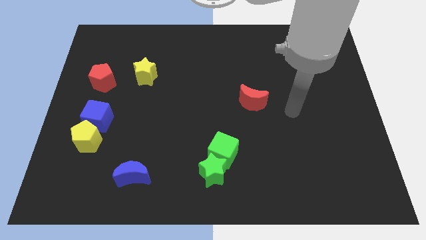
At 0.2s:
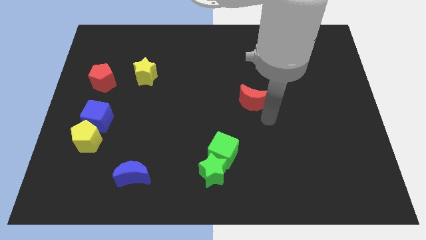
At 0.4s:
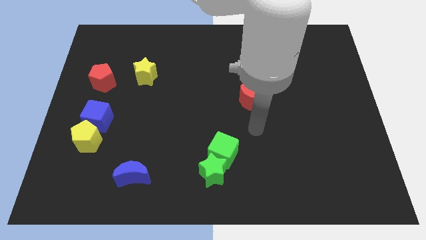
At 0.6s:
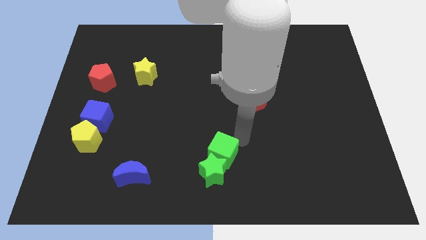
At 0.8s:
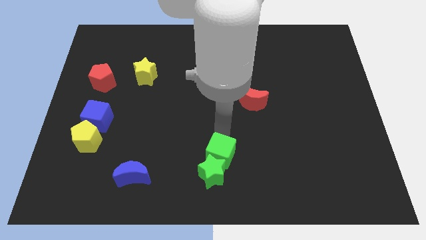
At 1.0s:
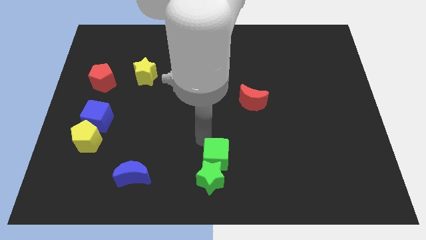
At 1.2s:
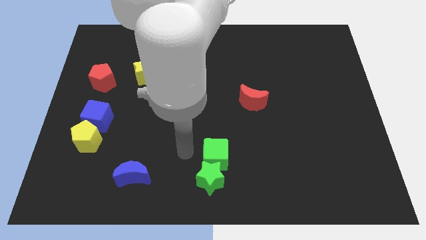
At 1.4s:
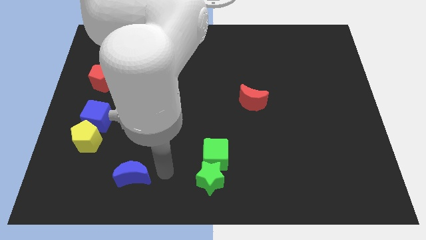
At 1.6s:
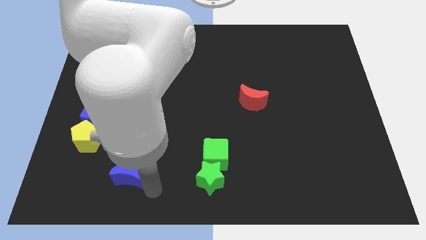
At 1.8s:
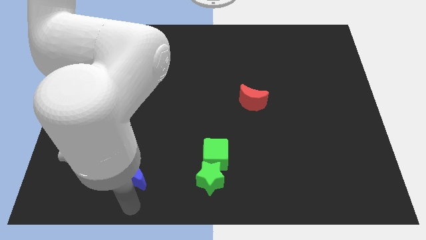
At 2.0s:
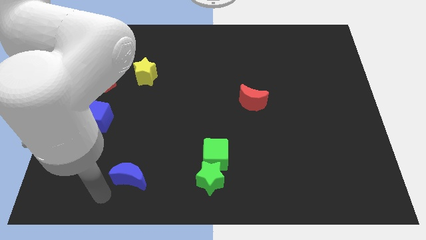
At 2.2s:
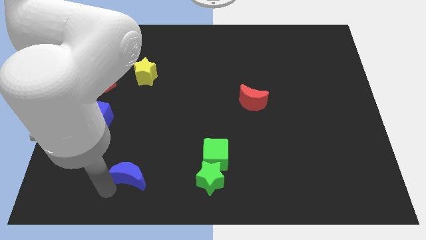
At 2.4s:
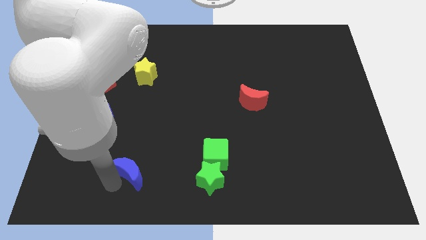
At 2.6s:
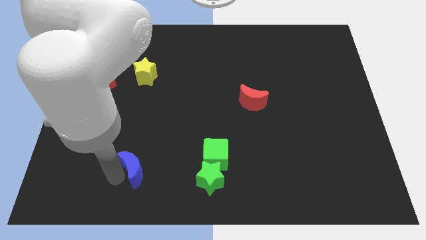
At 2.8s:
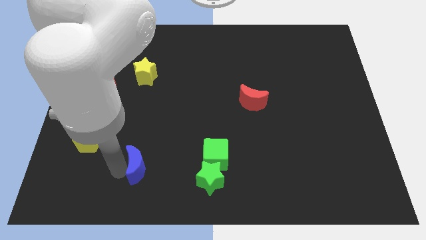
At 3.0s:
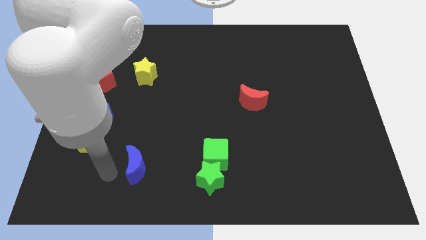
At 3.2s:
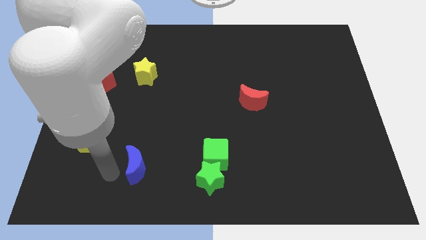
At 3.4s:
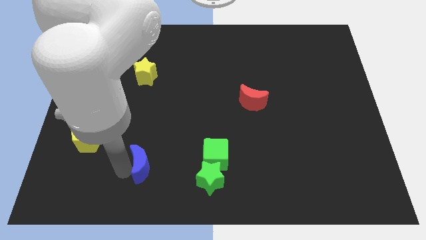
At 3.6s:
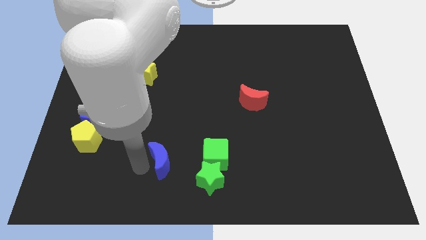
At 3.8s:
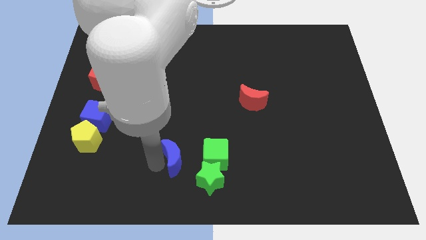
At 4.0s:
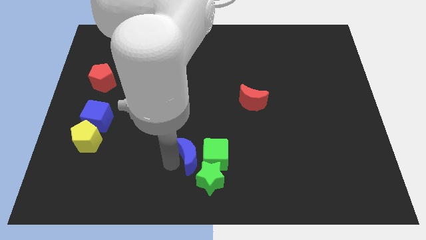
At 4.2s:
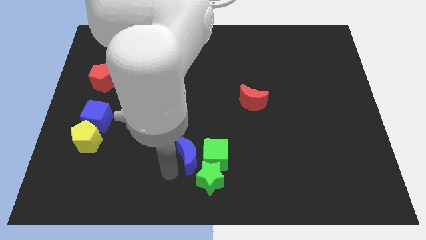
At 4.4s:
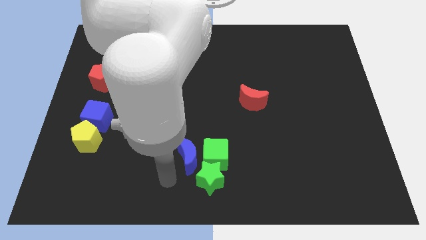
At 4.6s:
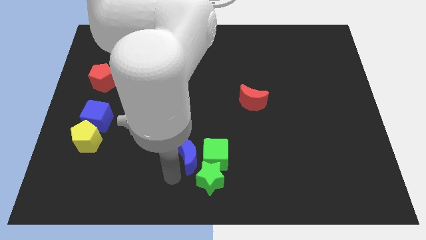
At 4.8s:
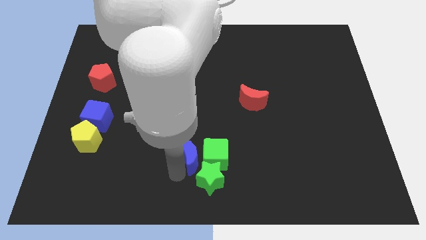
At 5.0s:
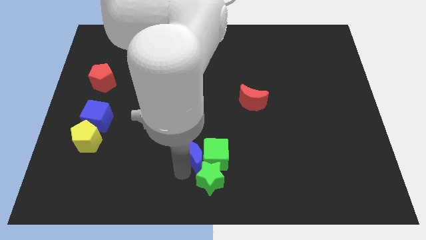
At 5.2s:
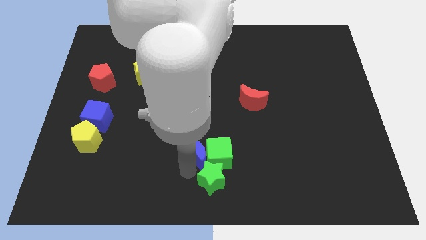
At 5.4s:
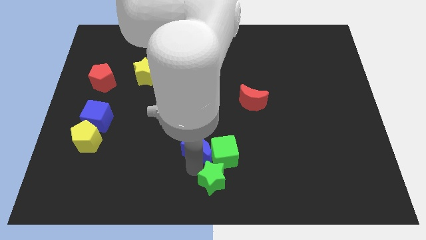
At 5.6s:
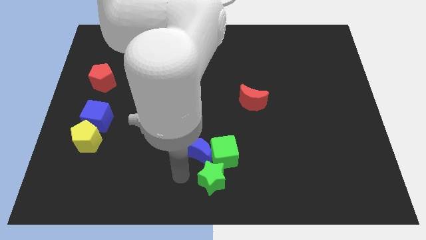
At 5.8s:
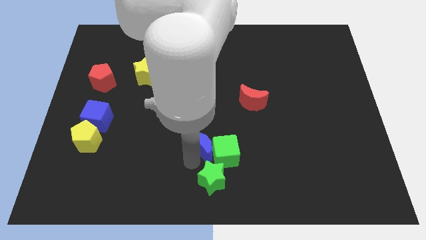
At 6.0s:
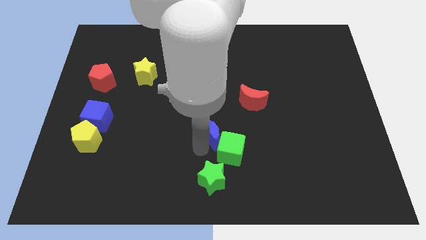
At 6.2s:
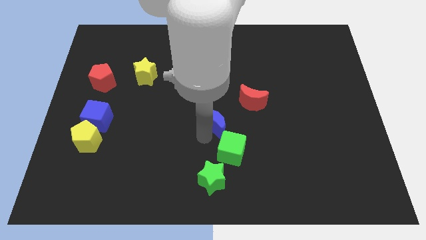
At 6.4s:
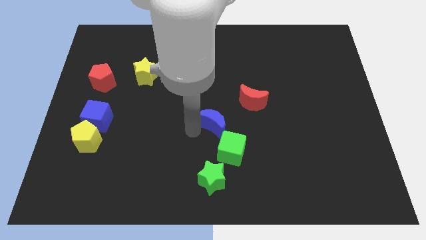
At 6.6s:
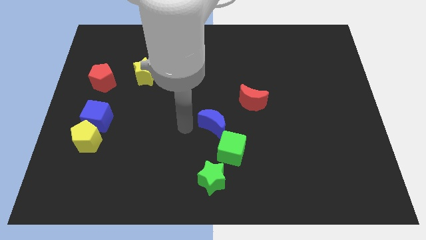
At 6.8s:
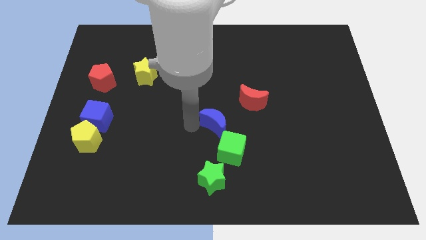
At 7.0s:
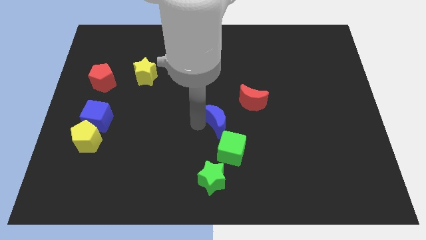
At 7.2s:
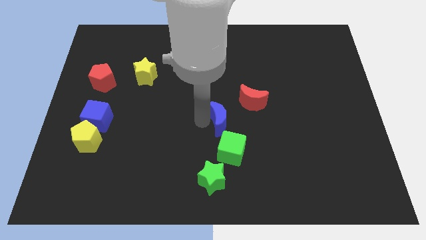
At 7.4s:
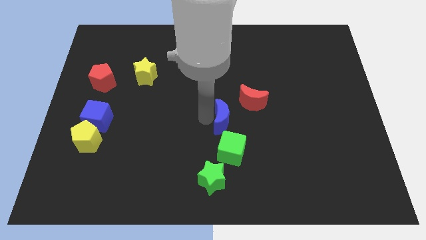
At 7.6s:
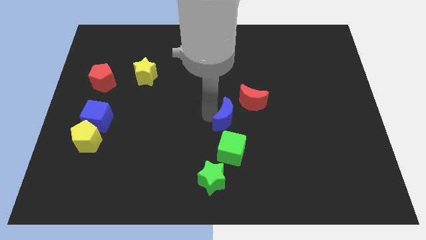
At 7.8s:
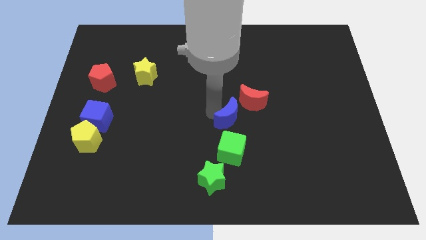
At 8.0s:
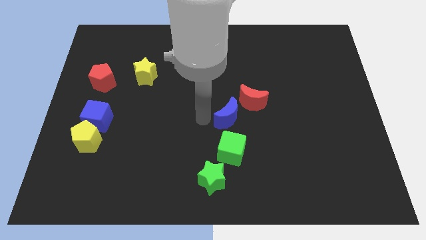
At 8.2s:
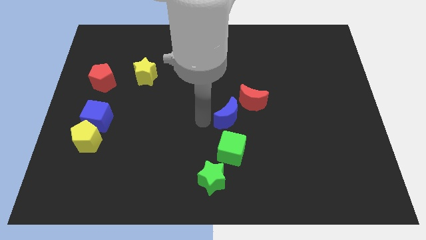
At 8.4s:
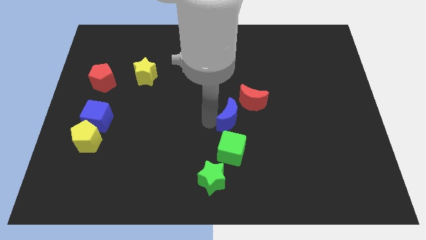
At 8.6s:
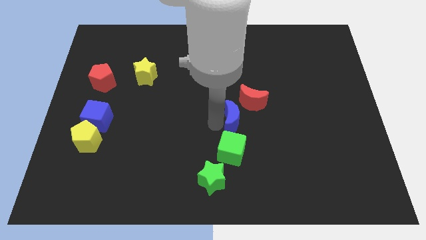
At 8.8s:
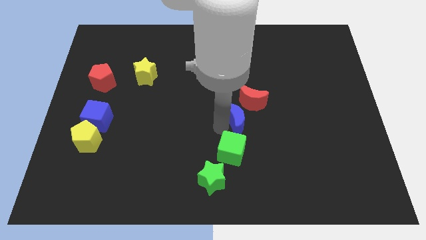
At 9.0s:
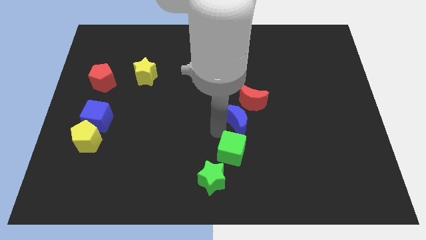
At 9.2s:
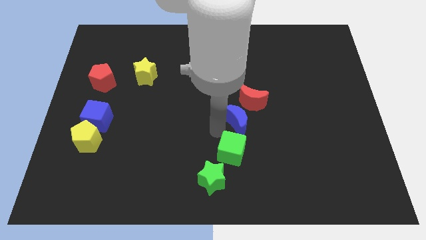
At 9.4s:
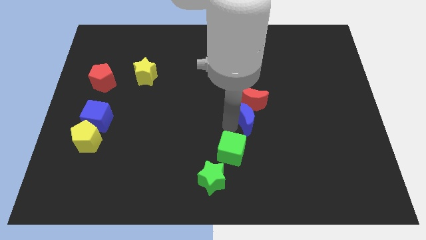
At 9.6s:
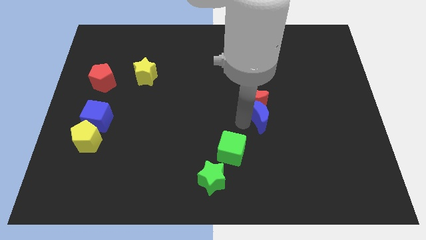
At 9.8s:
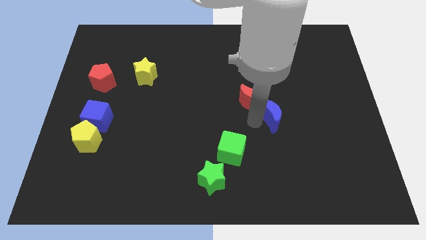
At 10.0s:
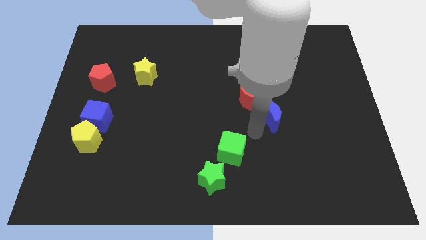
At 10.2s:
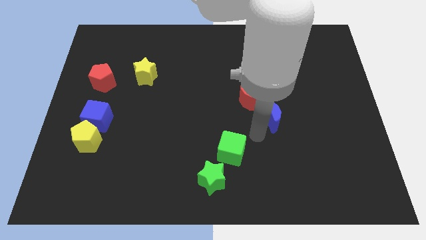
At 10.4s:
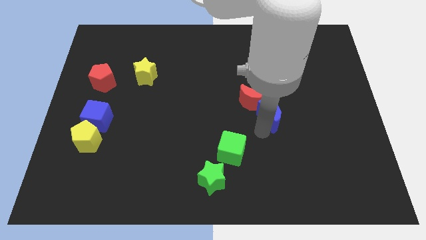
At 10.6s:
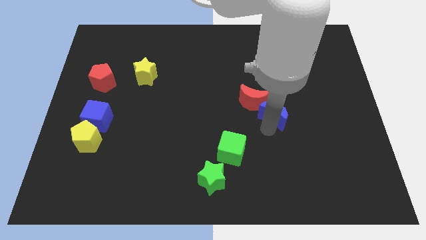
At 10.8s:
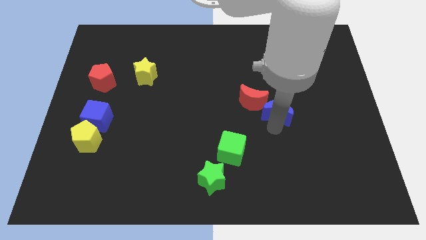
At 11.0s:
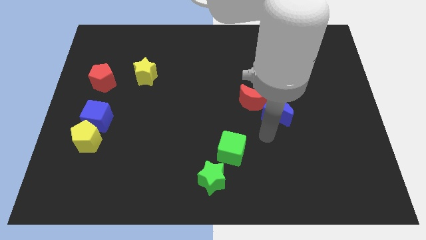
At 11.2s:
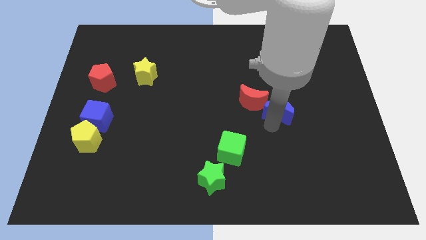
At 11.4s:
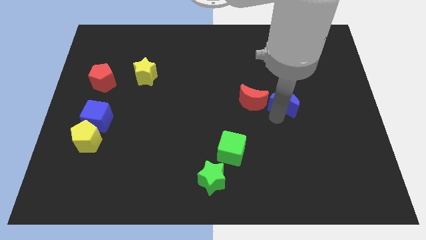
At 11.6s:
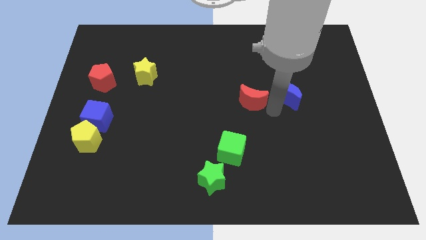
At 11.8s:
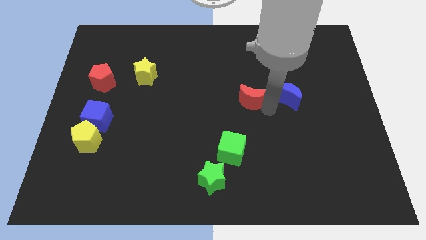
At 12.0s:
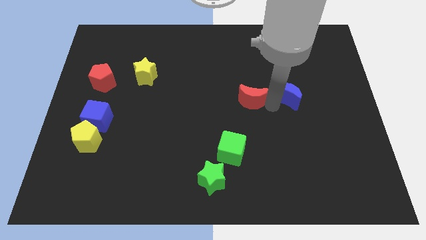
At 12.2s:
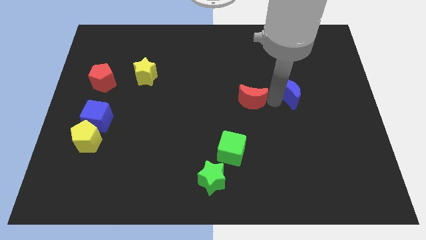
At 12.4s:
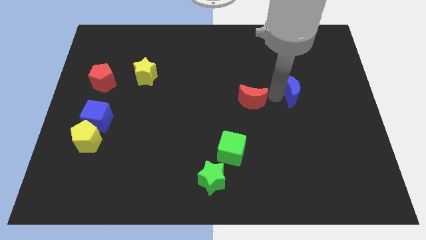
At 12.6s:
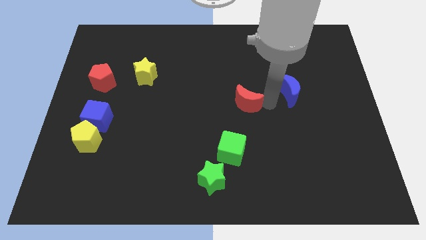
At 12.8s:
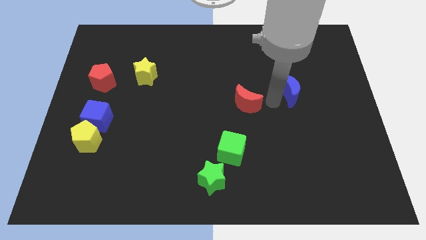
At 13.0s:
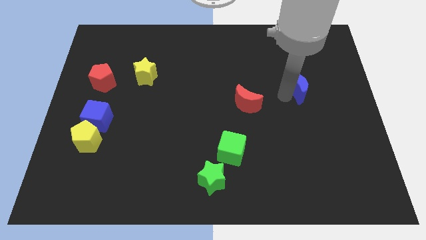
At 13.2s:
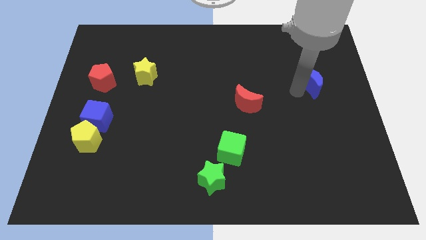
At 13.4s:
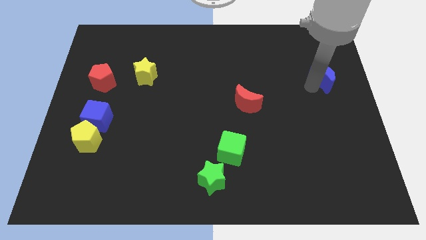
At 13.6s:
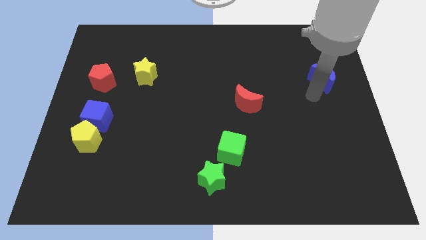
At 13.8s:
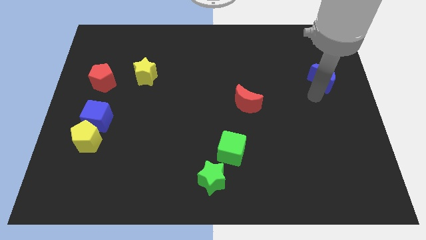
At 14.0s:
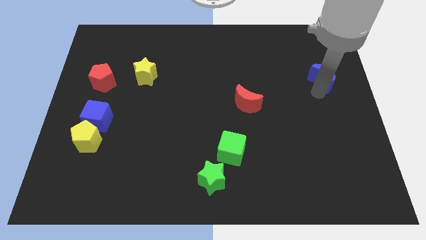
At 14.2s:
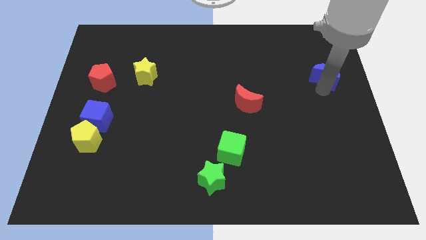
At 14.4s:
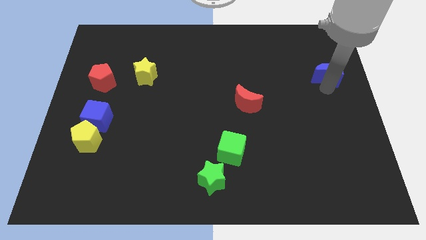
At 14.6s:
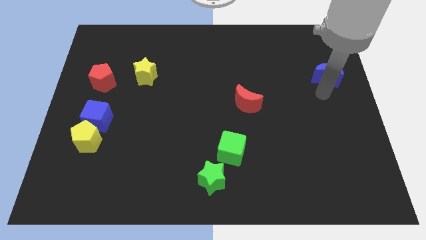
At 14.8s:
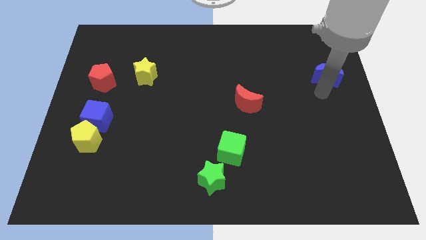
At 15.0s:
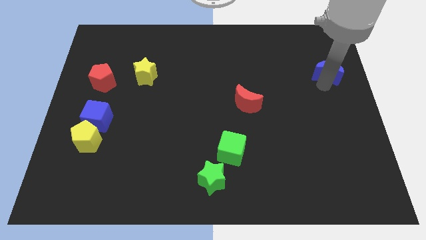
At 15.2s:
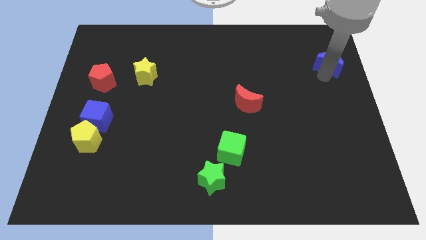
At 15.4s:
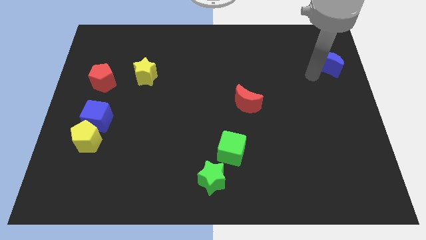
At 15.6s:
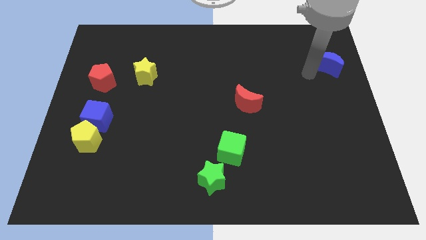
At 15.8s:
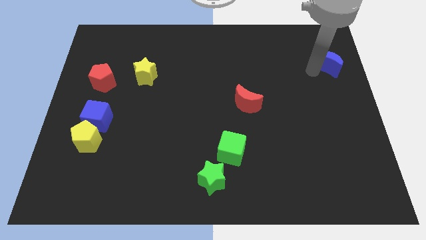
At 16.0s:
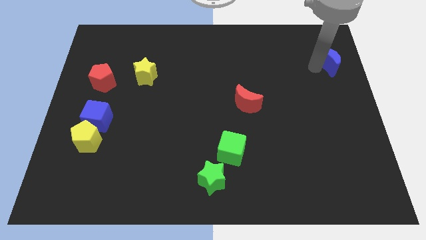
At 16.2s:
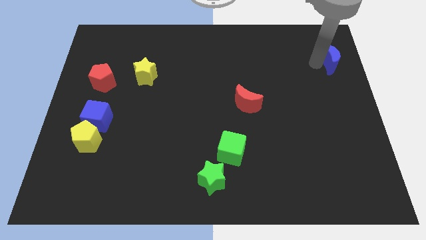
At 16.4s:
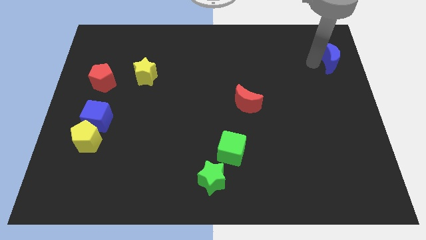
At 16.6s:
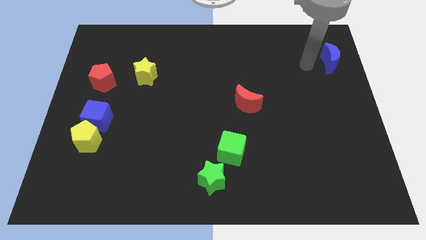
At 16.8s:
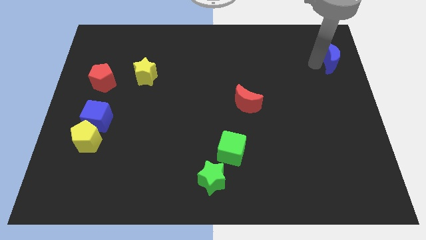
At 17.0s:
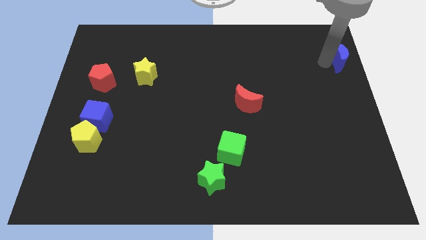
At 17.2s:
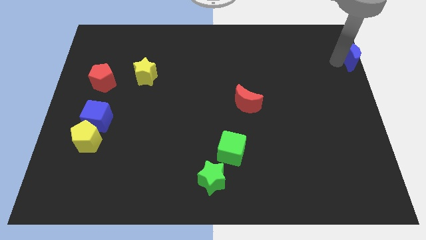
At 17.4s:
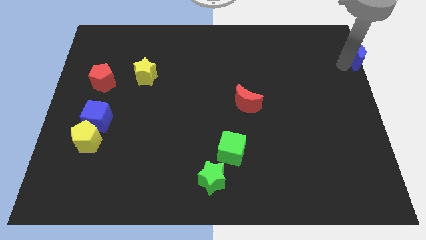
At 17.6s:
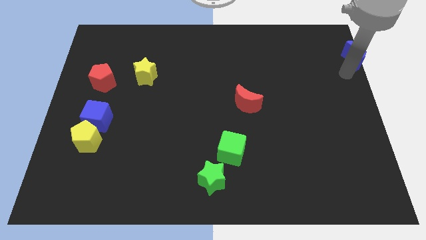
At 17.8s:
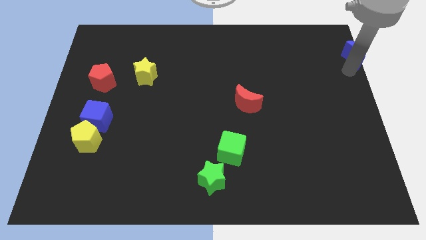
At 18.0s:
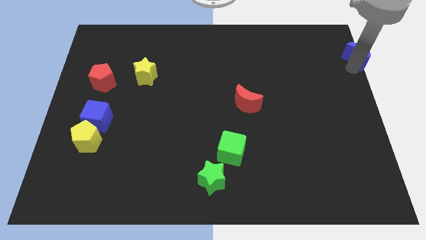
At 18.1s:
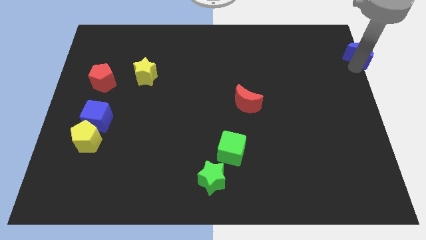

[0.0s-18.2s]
move the blue moon to the top right of the board
